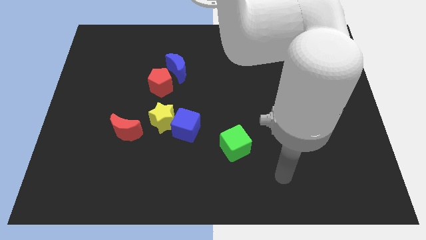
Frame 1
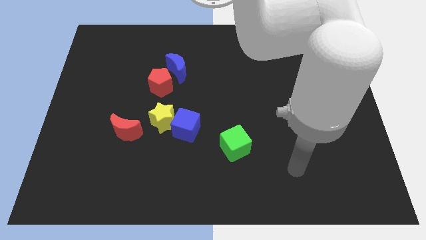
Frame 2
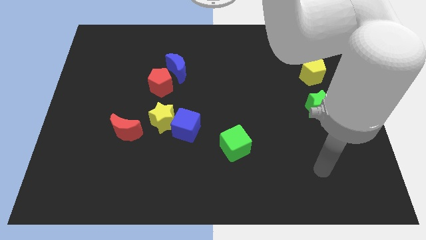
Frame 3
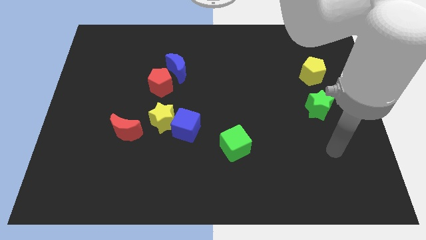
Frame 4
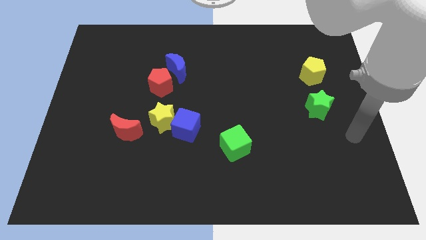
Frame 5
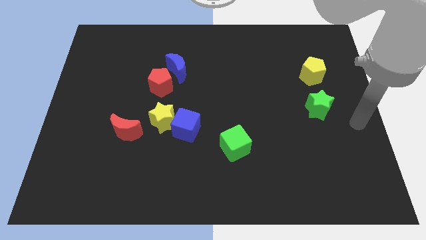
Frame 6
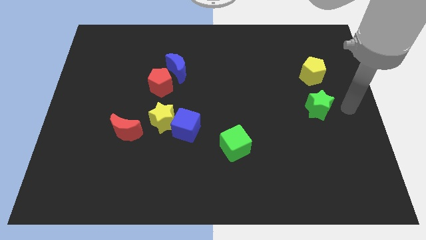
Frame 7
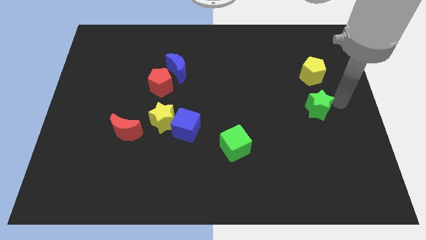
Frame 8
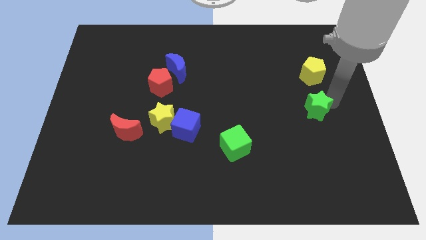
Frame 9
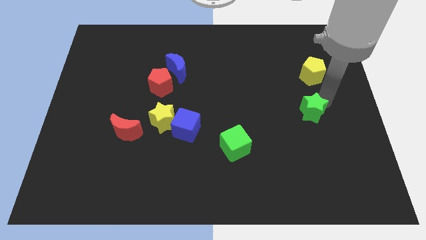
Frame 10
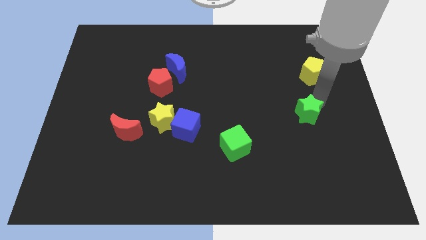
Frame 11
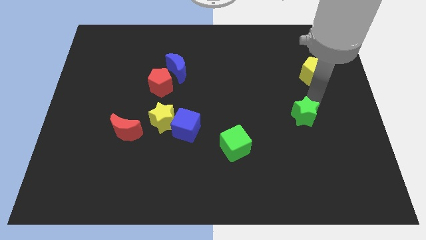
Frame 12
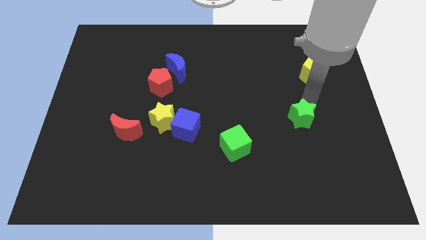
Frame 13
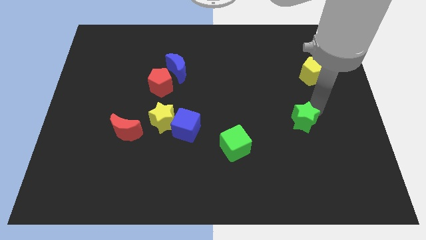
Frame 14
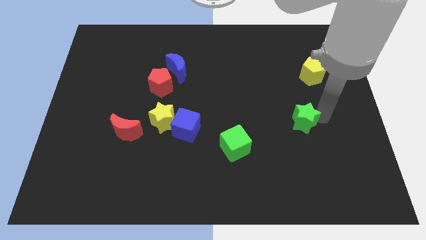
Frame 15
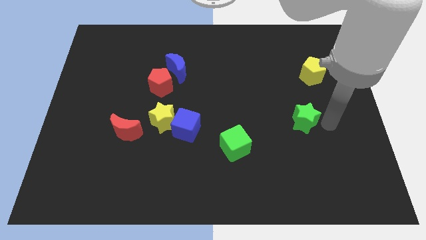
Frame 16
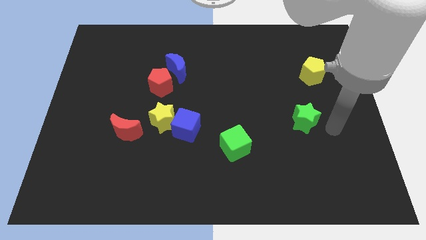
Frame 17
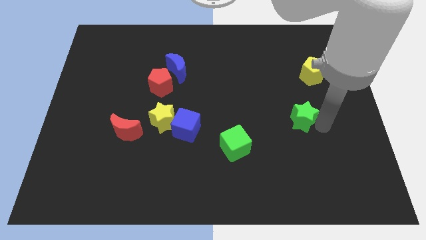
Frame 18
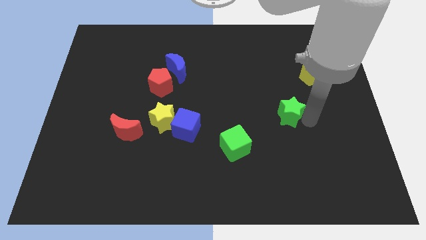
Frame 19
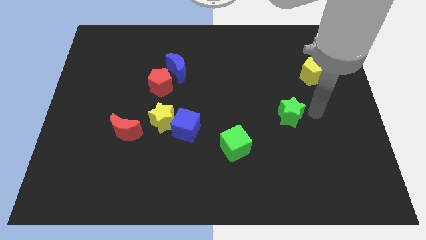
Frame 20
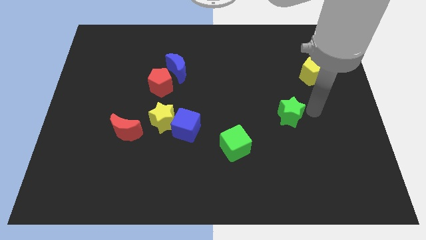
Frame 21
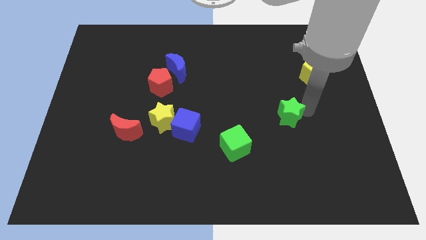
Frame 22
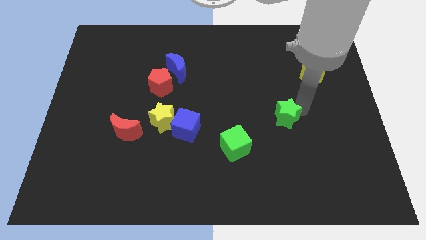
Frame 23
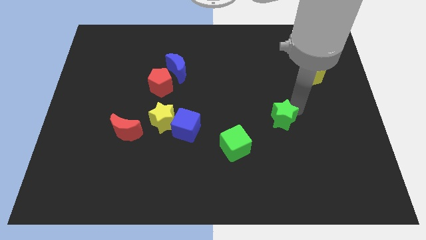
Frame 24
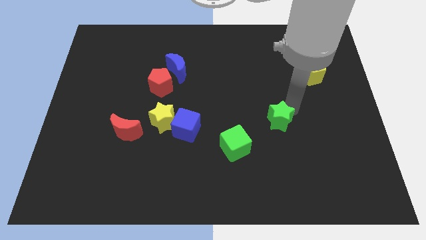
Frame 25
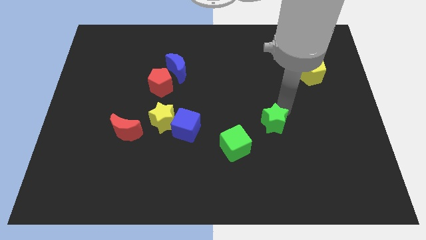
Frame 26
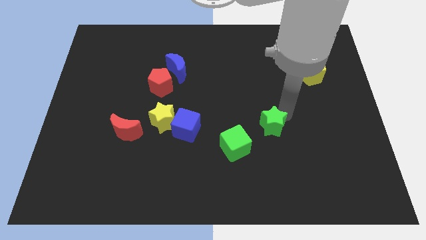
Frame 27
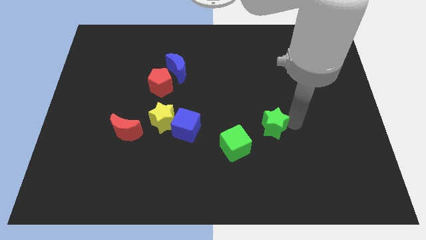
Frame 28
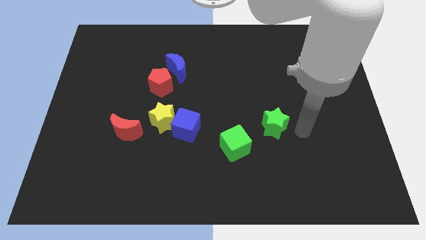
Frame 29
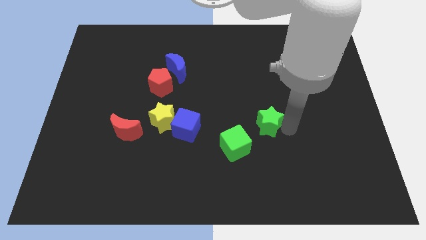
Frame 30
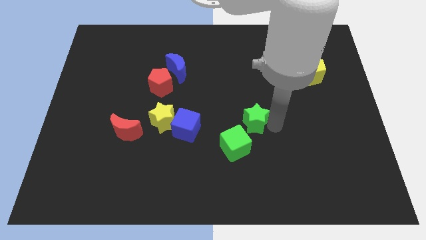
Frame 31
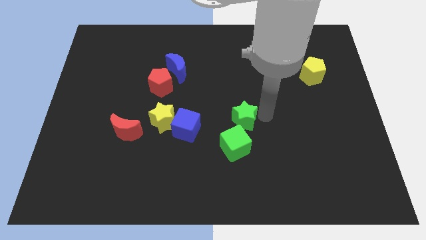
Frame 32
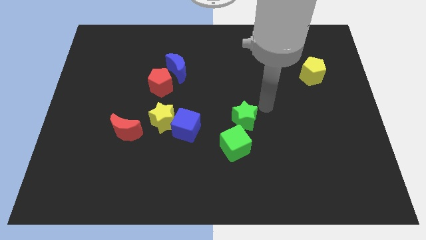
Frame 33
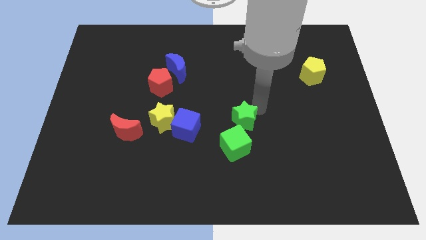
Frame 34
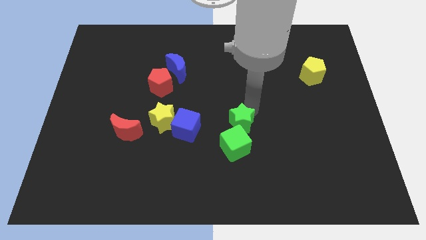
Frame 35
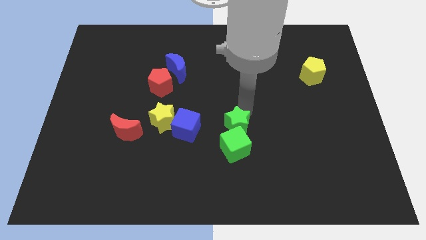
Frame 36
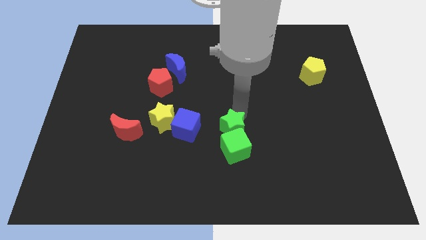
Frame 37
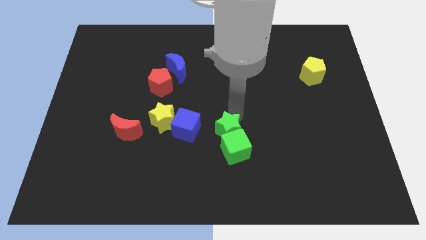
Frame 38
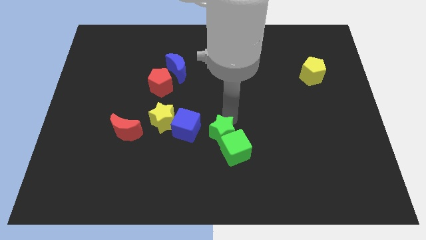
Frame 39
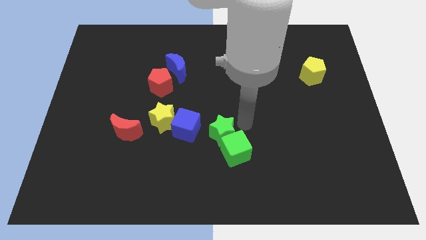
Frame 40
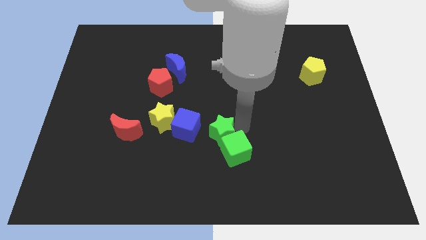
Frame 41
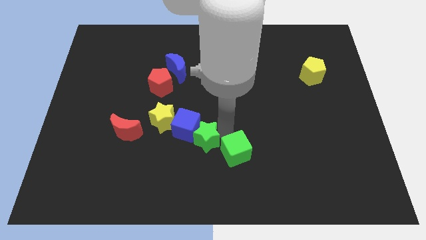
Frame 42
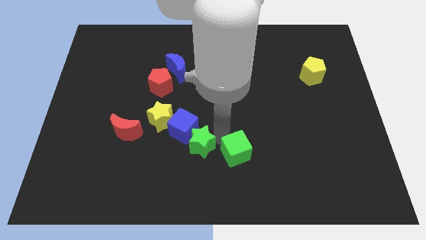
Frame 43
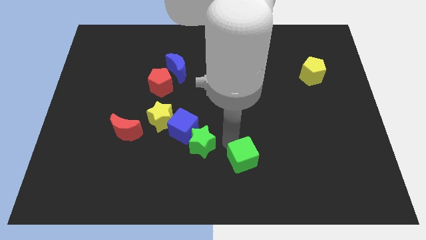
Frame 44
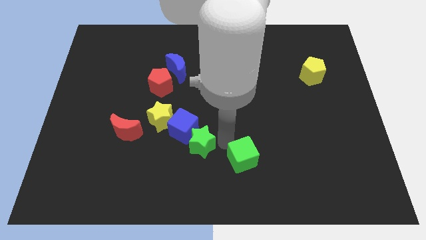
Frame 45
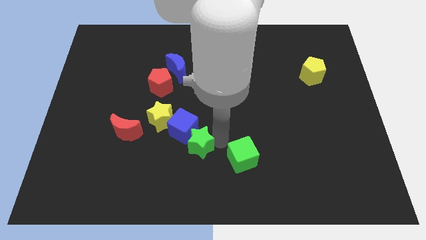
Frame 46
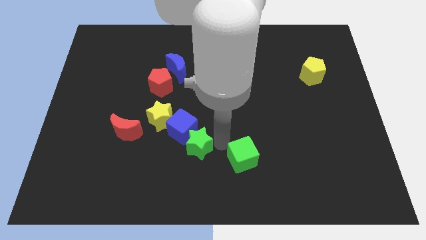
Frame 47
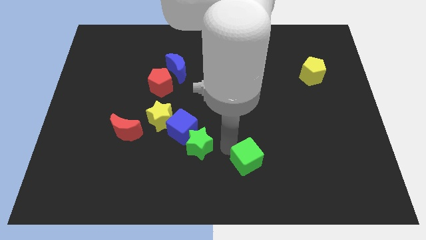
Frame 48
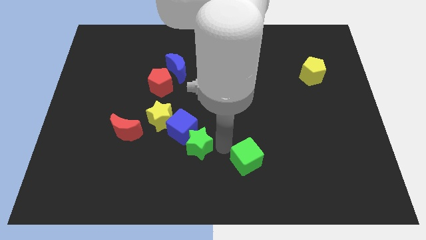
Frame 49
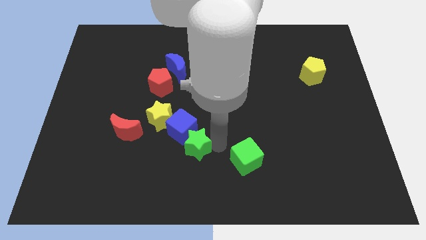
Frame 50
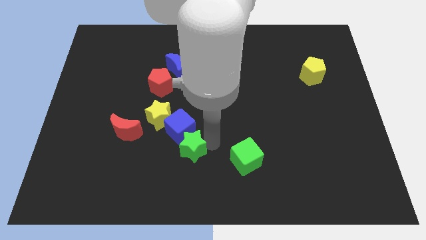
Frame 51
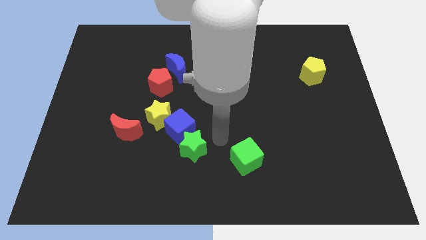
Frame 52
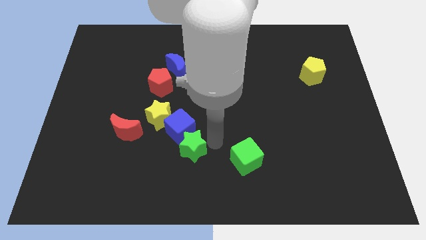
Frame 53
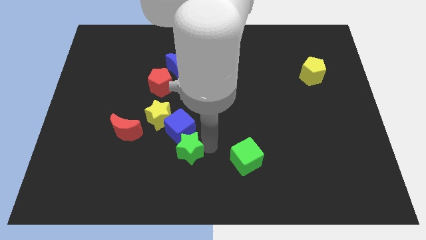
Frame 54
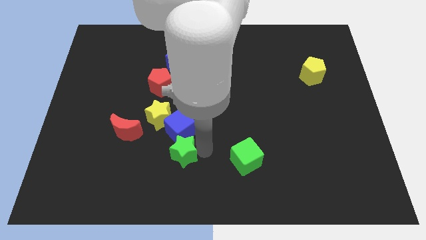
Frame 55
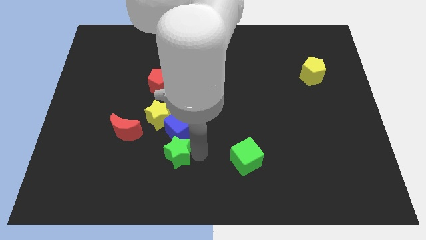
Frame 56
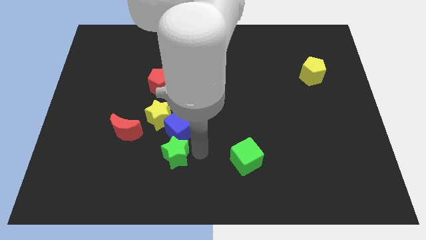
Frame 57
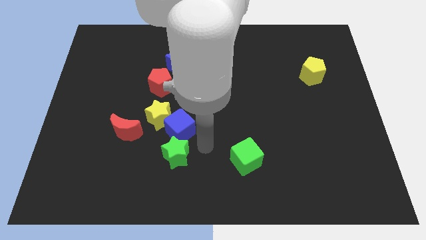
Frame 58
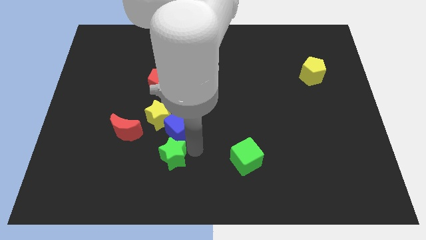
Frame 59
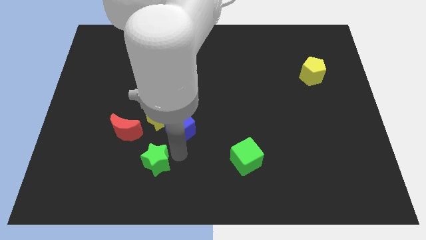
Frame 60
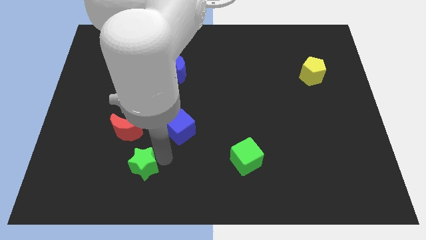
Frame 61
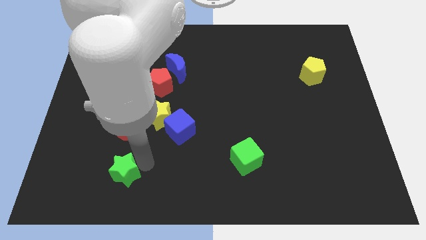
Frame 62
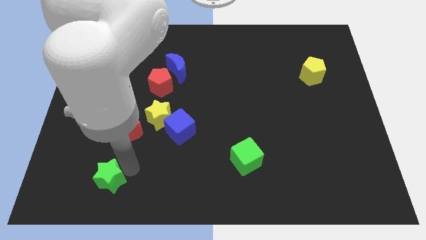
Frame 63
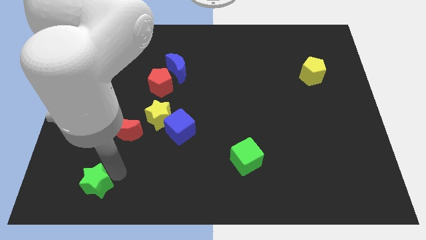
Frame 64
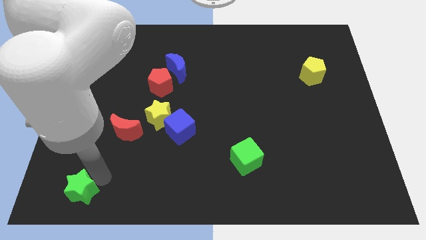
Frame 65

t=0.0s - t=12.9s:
move the green star to the bottom left corner
